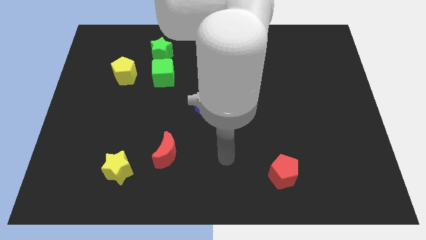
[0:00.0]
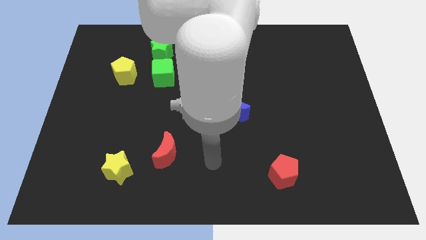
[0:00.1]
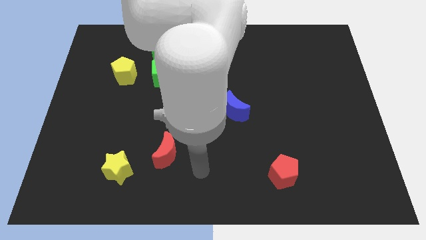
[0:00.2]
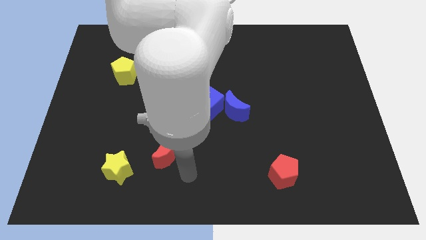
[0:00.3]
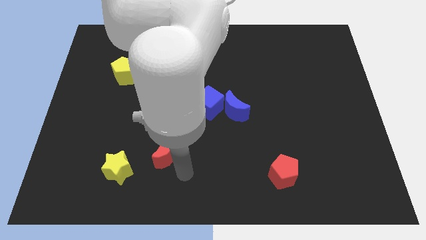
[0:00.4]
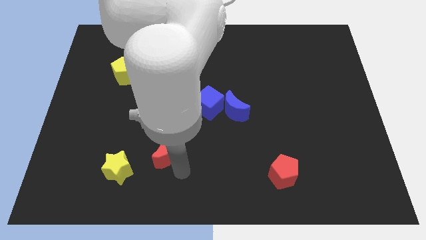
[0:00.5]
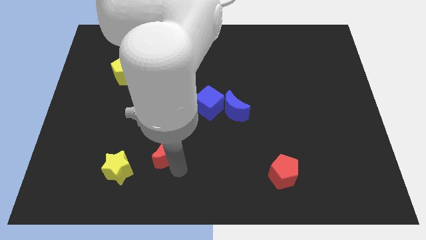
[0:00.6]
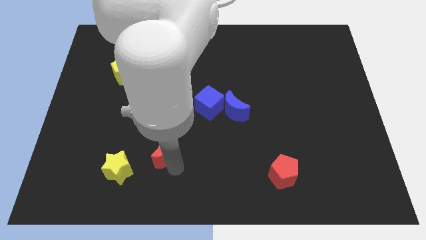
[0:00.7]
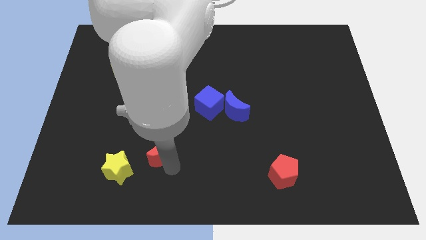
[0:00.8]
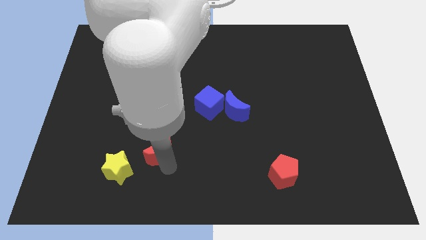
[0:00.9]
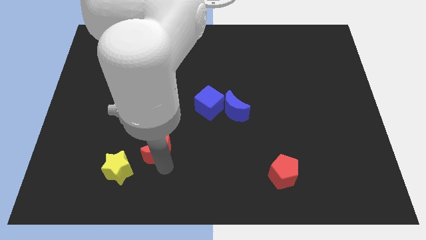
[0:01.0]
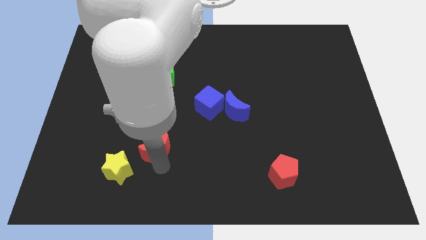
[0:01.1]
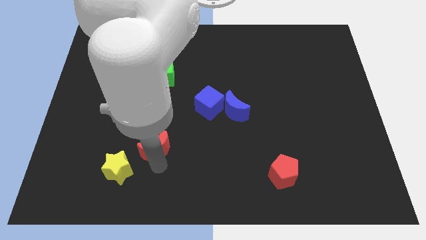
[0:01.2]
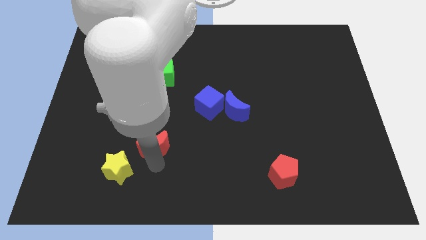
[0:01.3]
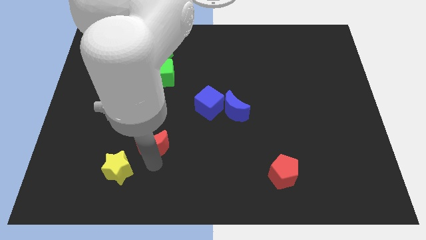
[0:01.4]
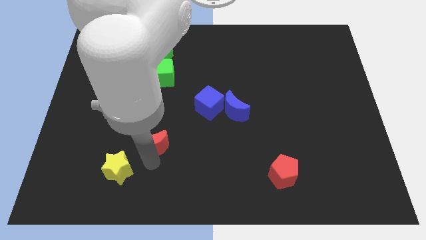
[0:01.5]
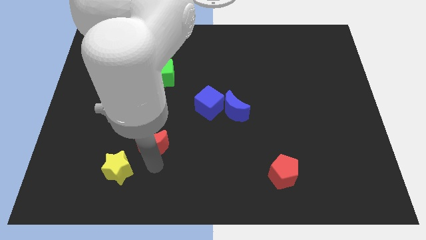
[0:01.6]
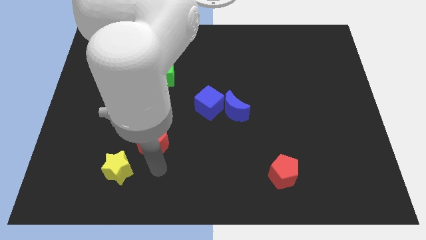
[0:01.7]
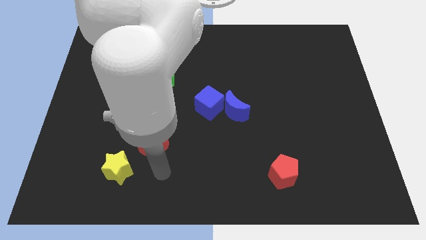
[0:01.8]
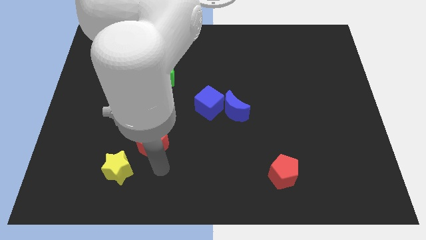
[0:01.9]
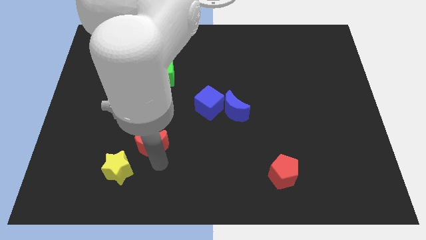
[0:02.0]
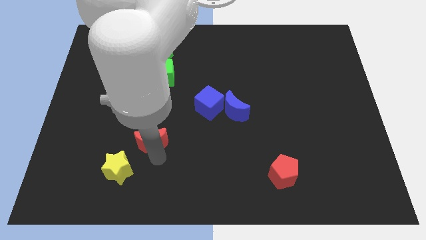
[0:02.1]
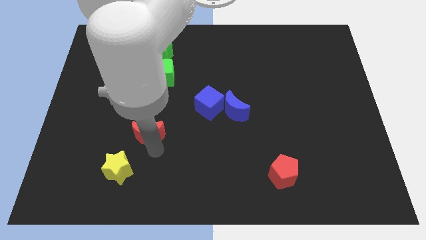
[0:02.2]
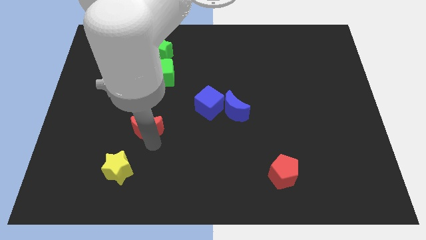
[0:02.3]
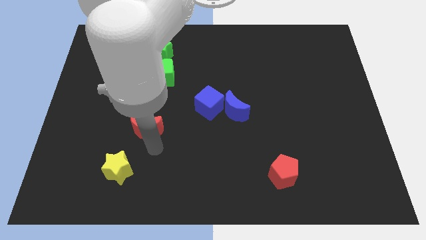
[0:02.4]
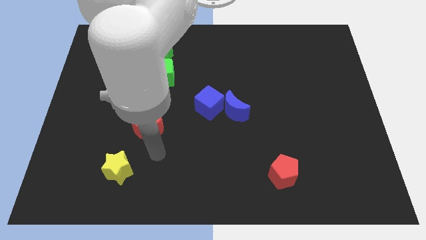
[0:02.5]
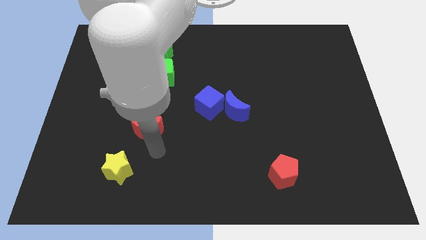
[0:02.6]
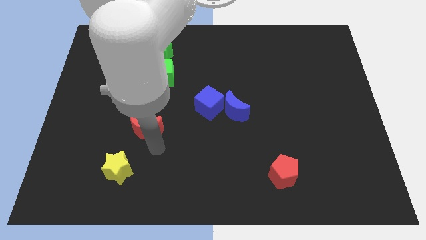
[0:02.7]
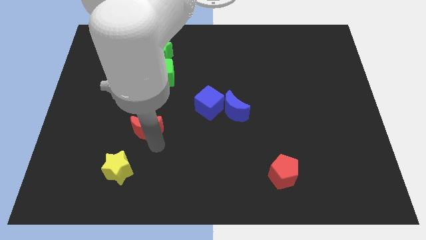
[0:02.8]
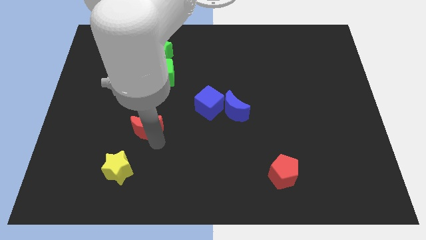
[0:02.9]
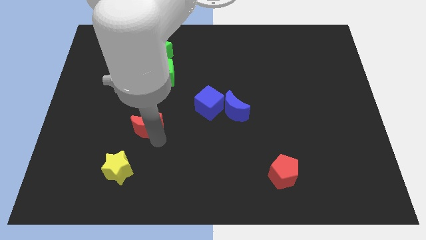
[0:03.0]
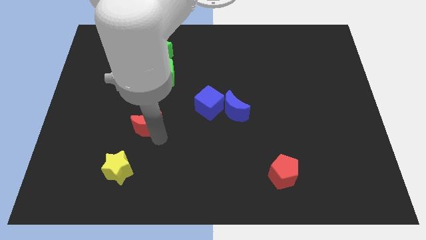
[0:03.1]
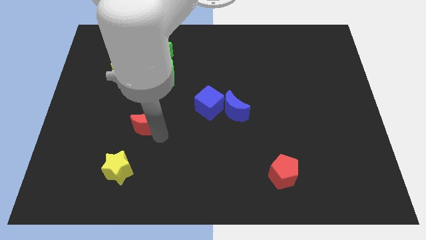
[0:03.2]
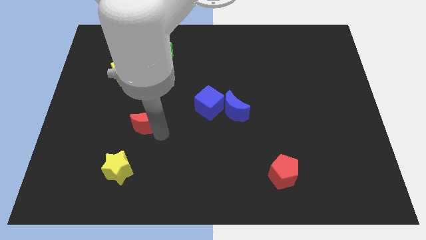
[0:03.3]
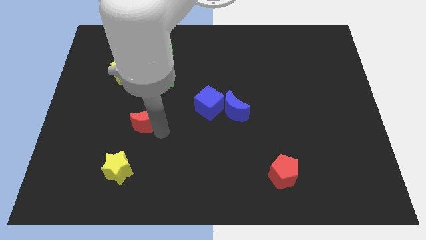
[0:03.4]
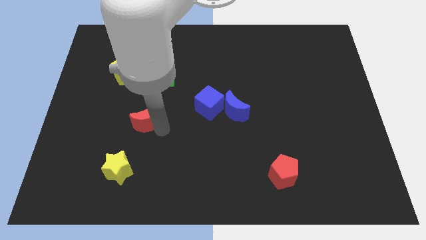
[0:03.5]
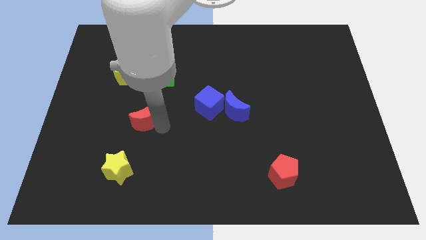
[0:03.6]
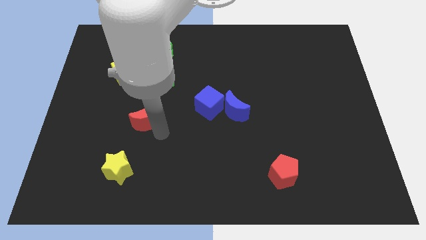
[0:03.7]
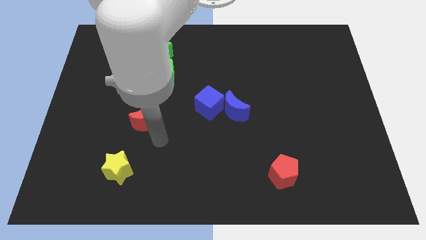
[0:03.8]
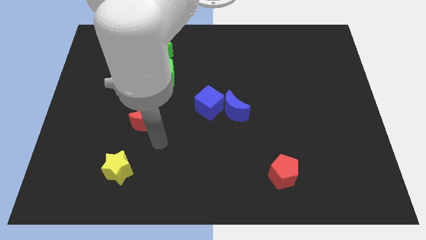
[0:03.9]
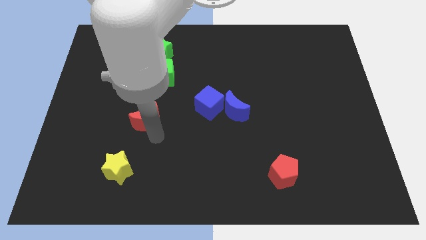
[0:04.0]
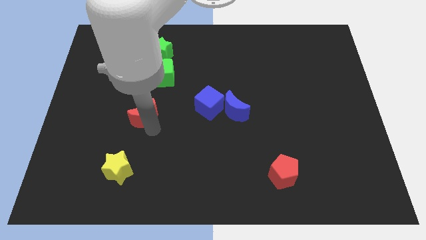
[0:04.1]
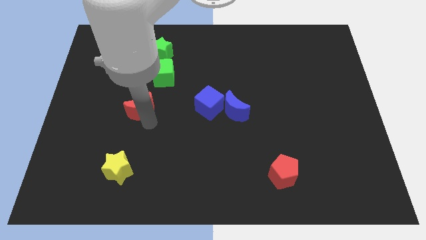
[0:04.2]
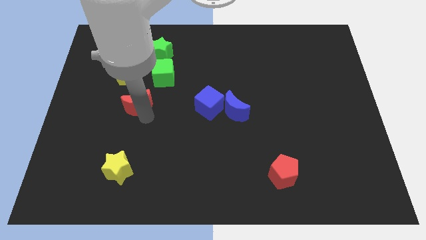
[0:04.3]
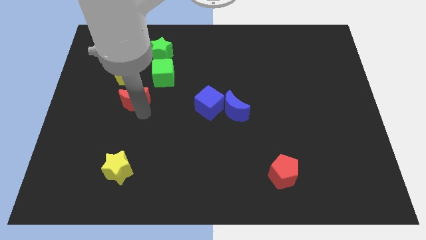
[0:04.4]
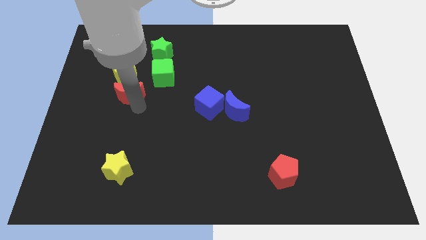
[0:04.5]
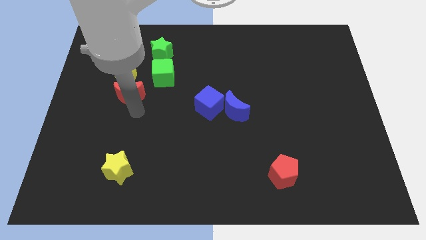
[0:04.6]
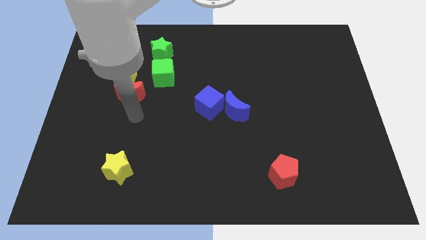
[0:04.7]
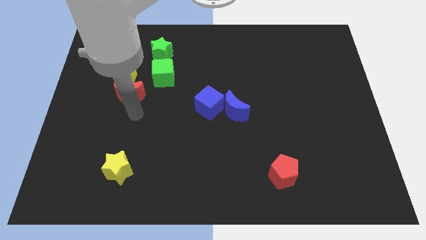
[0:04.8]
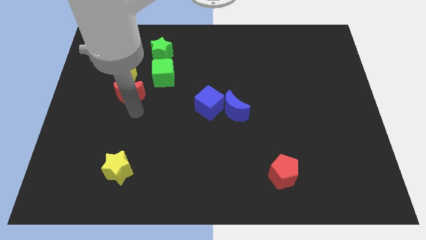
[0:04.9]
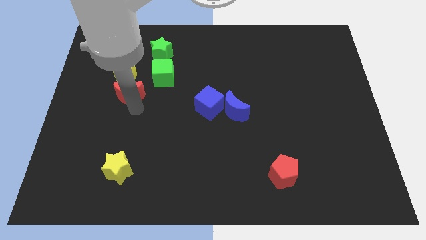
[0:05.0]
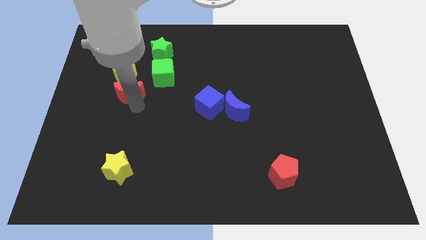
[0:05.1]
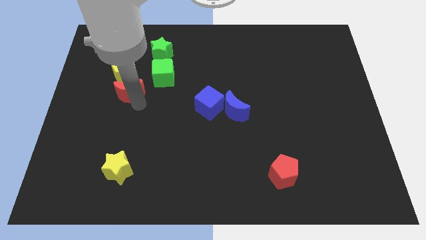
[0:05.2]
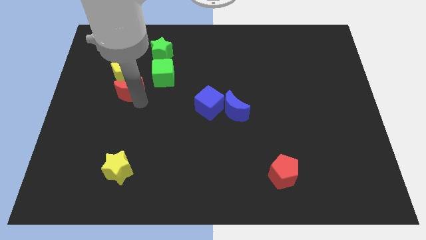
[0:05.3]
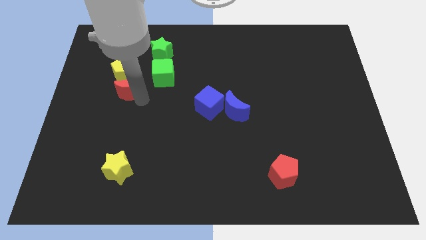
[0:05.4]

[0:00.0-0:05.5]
put the red moon next to the yellow pentagon

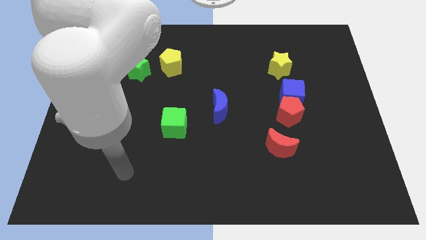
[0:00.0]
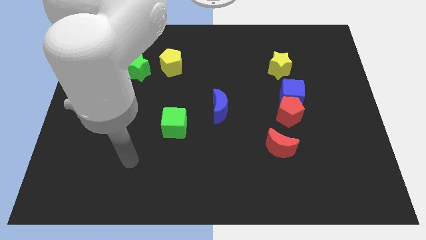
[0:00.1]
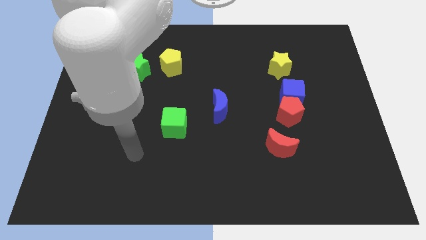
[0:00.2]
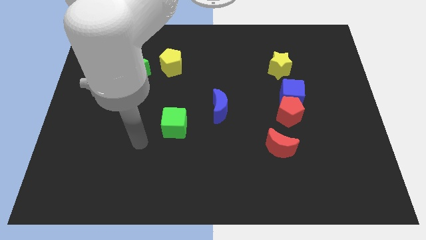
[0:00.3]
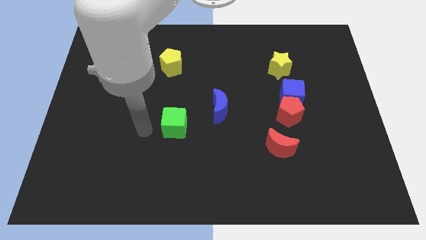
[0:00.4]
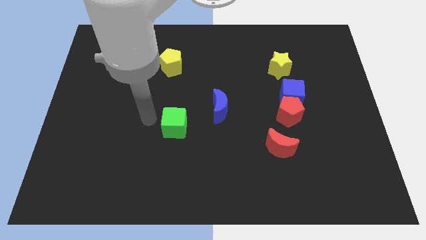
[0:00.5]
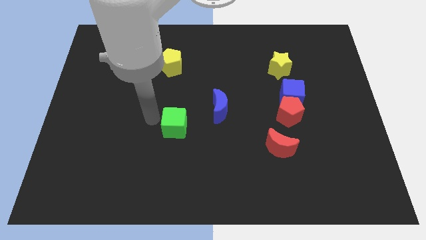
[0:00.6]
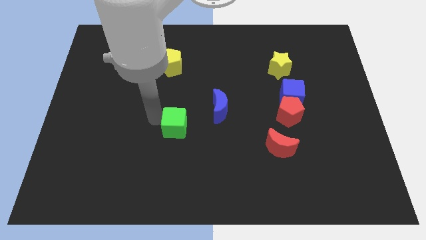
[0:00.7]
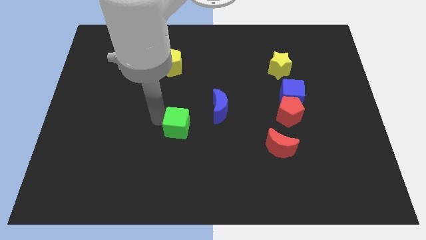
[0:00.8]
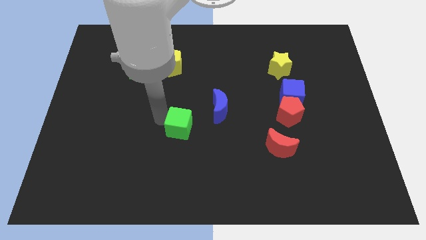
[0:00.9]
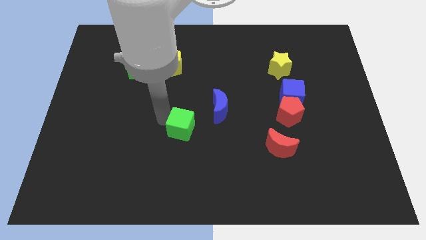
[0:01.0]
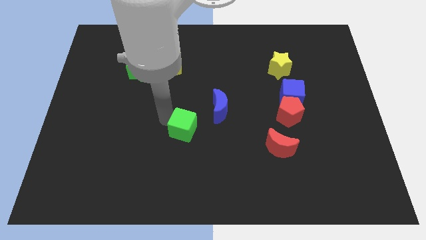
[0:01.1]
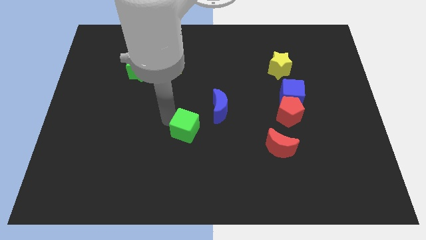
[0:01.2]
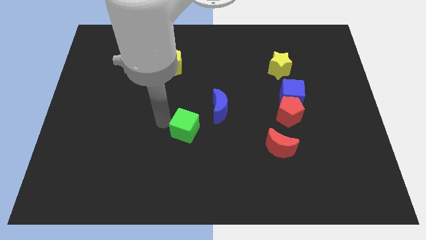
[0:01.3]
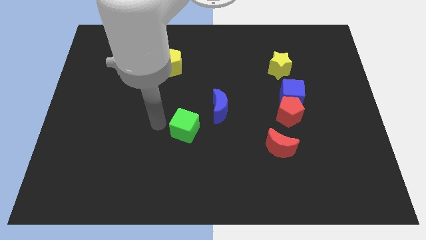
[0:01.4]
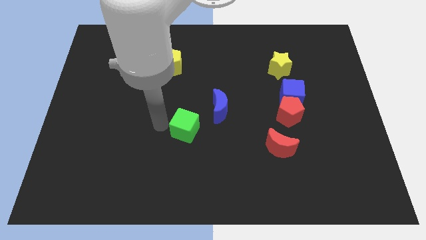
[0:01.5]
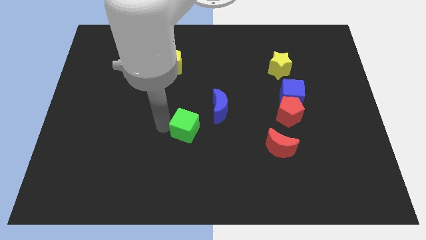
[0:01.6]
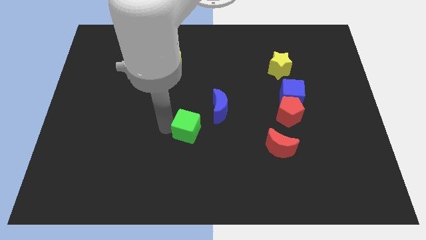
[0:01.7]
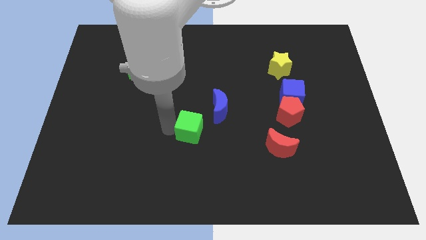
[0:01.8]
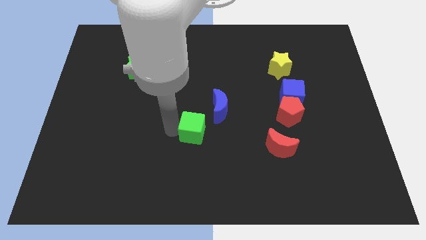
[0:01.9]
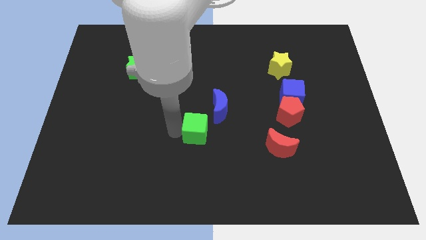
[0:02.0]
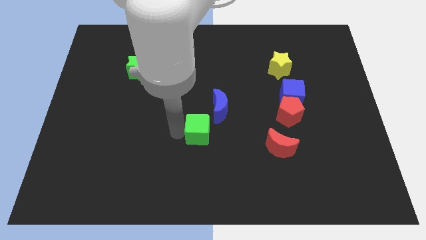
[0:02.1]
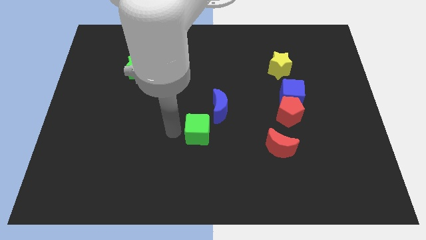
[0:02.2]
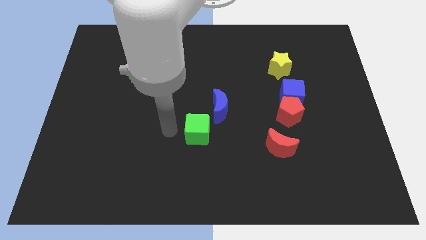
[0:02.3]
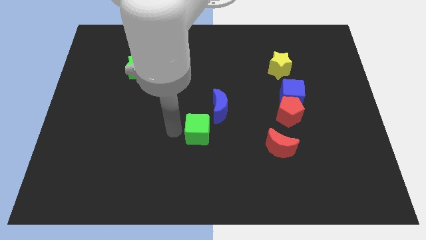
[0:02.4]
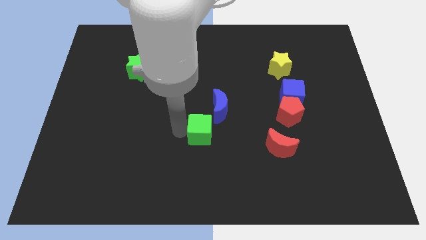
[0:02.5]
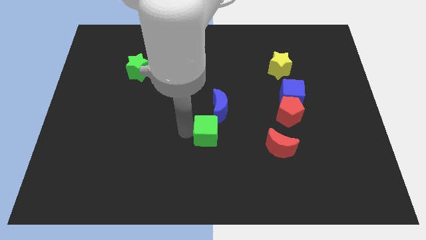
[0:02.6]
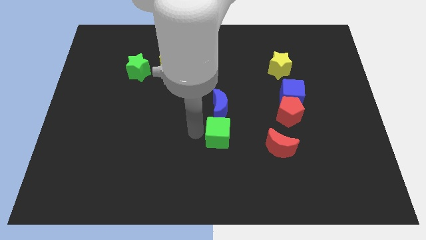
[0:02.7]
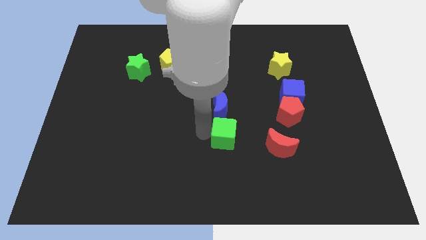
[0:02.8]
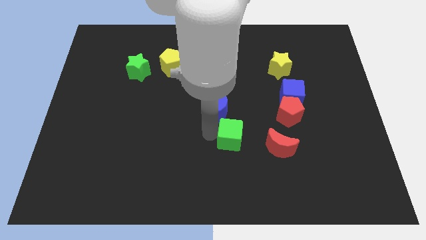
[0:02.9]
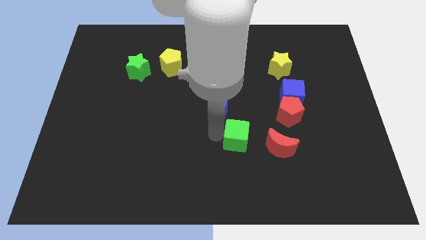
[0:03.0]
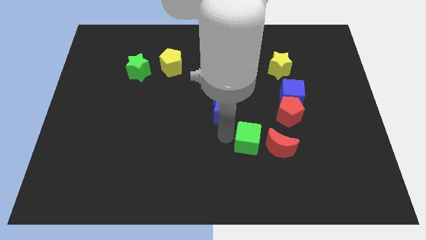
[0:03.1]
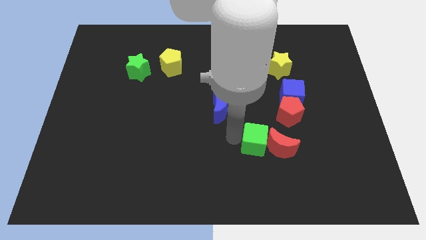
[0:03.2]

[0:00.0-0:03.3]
move the green cube close to the red moon
